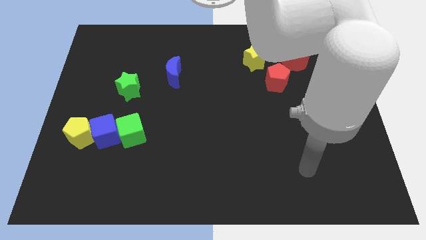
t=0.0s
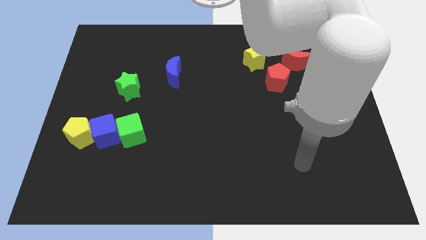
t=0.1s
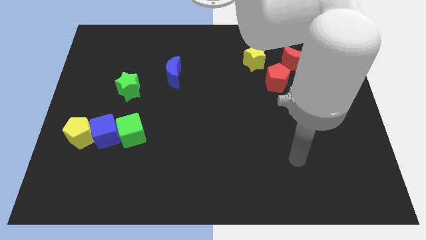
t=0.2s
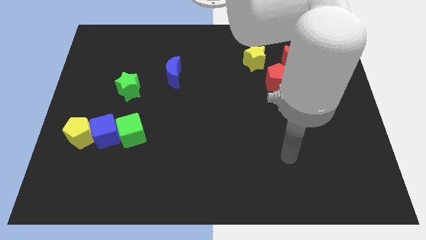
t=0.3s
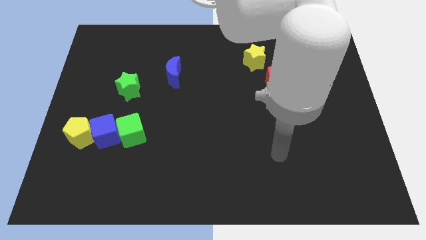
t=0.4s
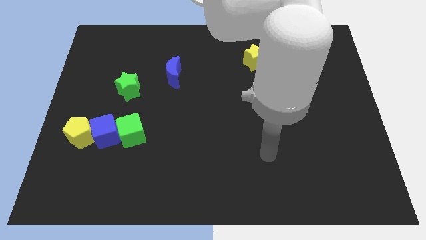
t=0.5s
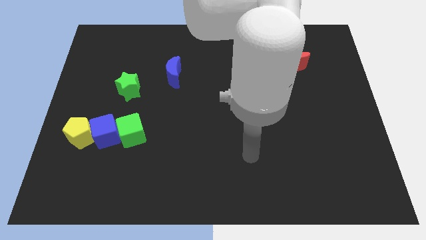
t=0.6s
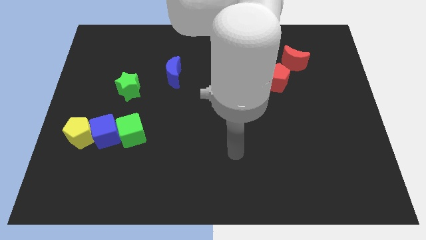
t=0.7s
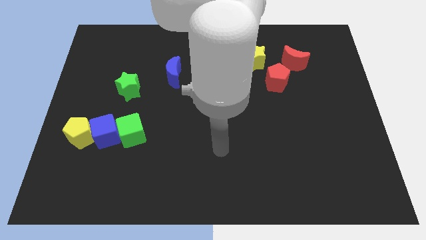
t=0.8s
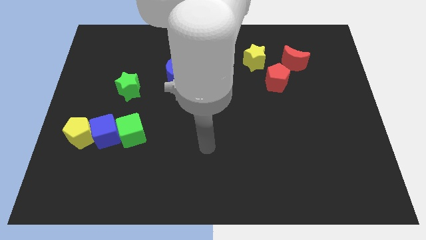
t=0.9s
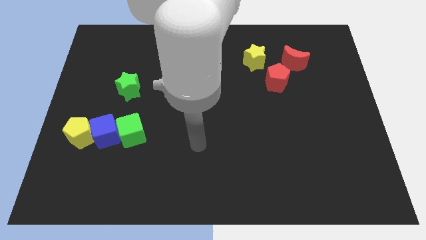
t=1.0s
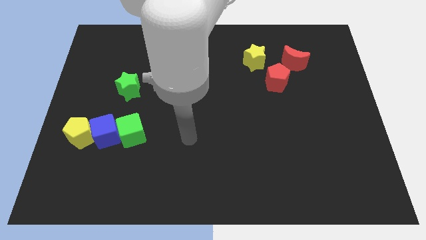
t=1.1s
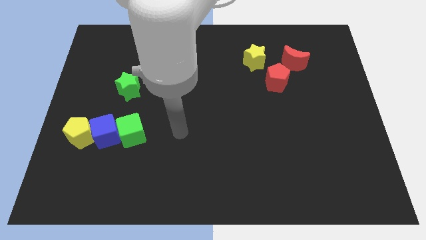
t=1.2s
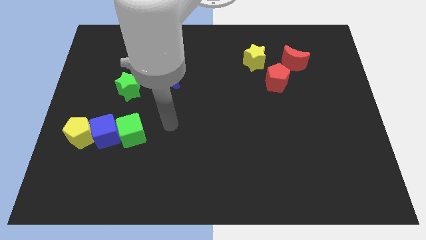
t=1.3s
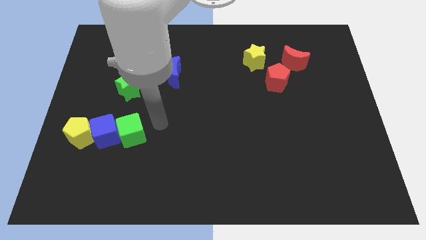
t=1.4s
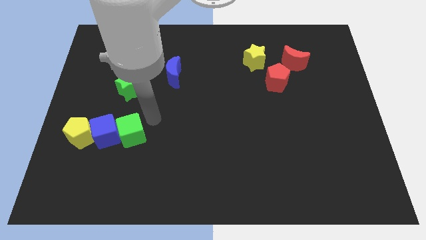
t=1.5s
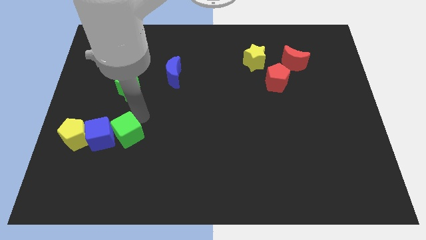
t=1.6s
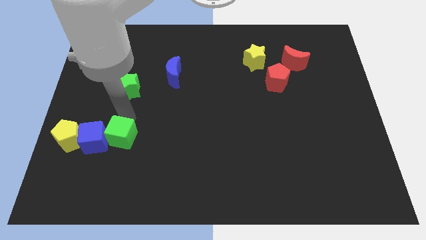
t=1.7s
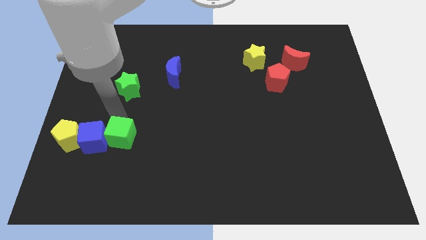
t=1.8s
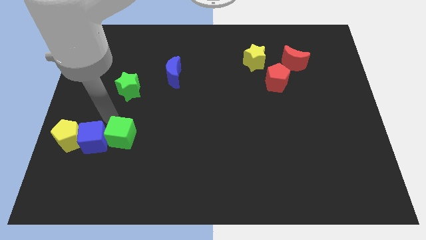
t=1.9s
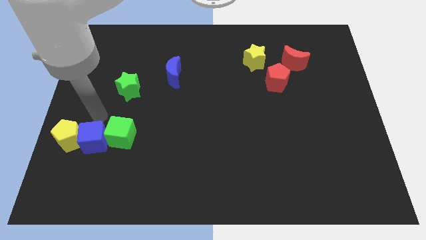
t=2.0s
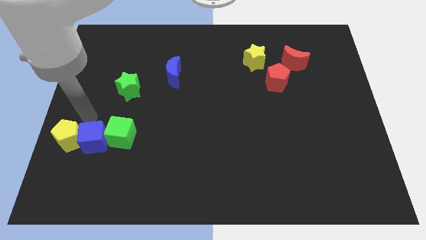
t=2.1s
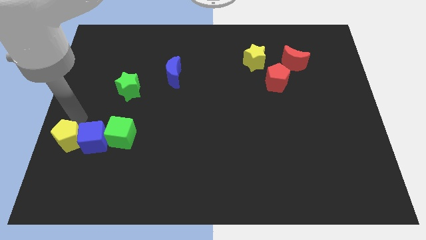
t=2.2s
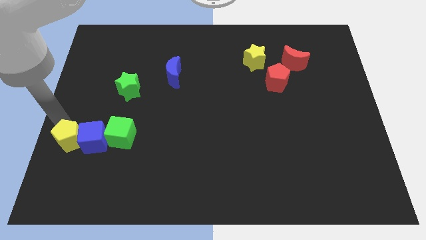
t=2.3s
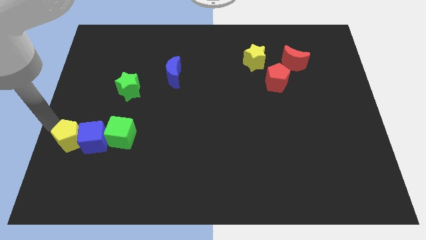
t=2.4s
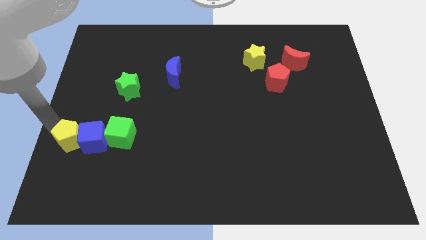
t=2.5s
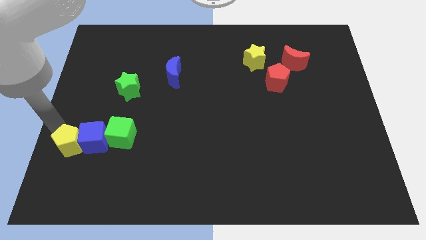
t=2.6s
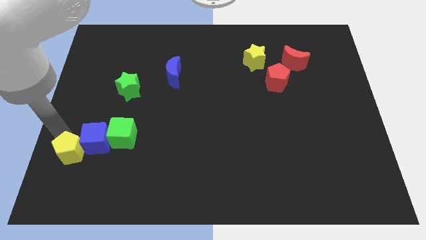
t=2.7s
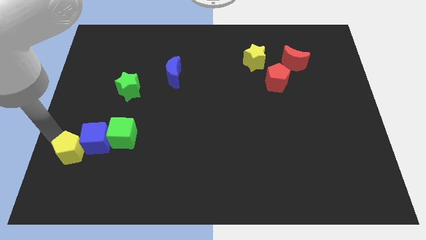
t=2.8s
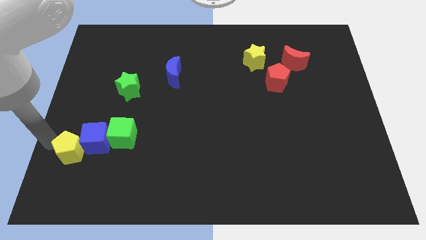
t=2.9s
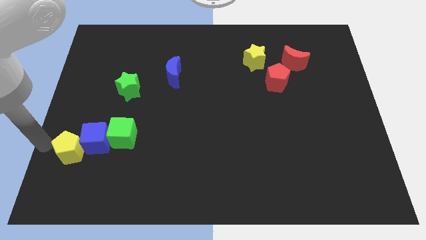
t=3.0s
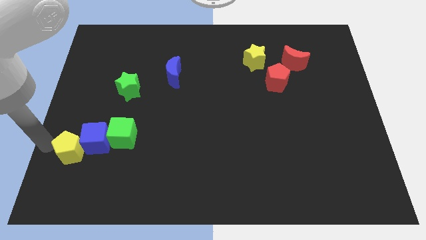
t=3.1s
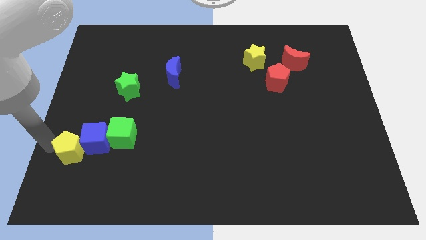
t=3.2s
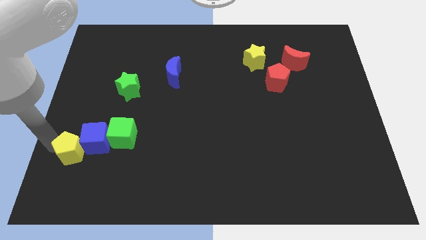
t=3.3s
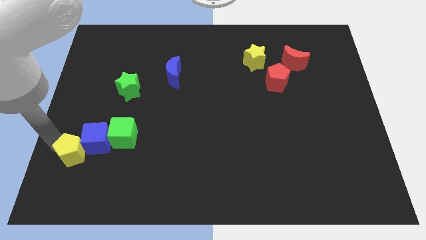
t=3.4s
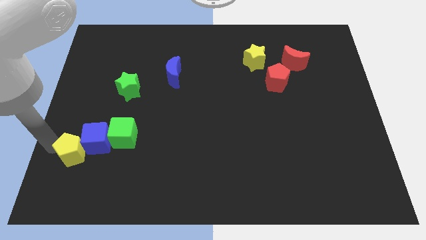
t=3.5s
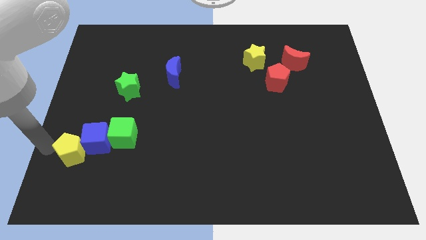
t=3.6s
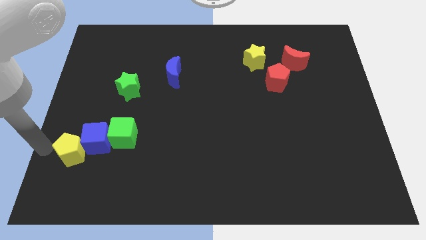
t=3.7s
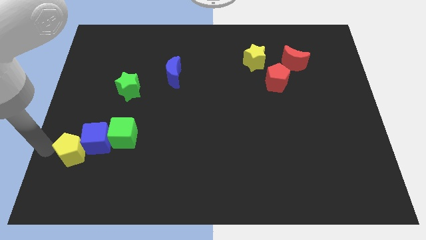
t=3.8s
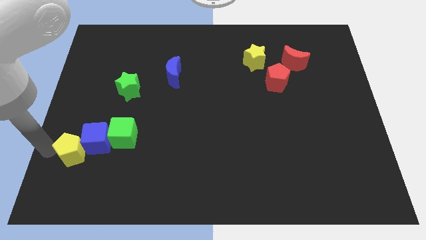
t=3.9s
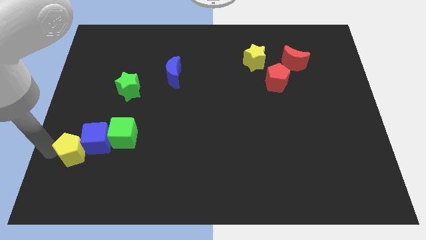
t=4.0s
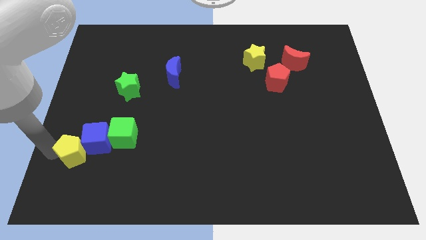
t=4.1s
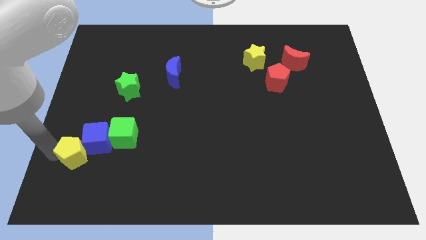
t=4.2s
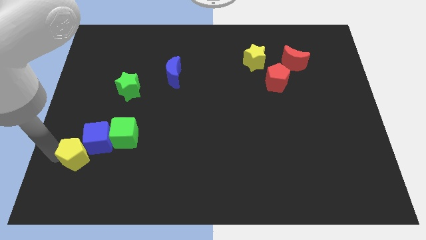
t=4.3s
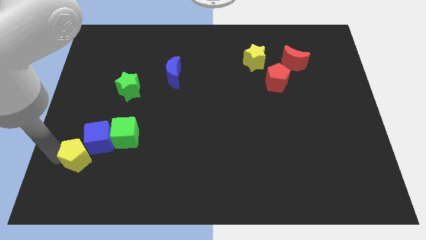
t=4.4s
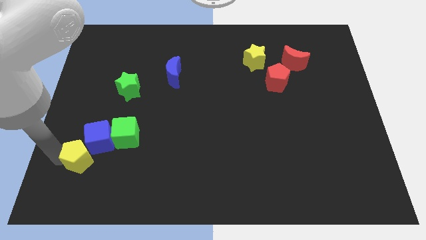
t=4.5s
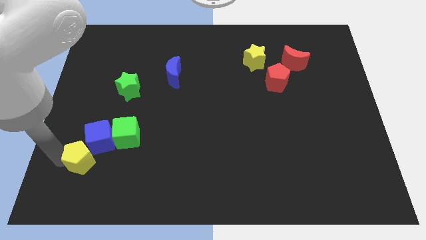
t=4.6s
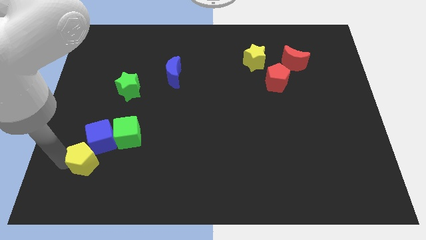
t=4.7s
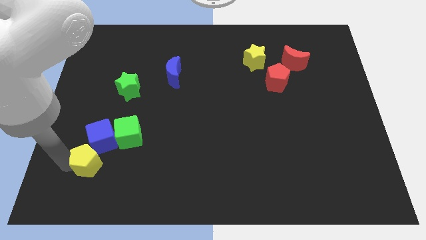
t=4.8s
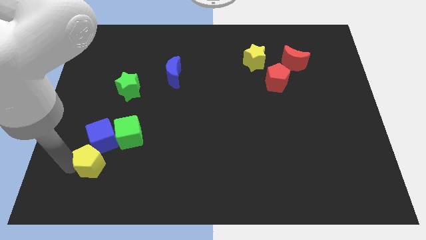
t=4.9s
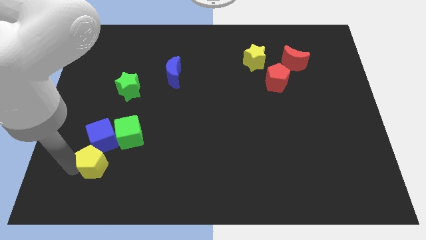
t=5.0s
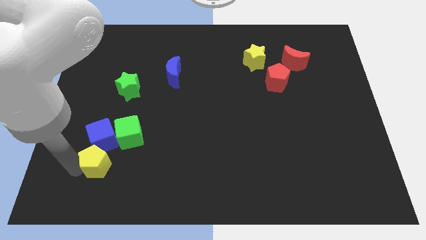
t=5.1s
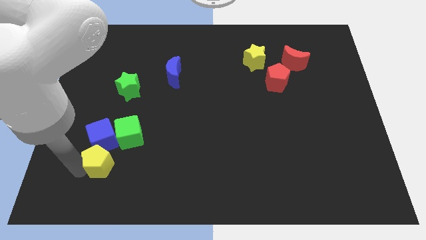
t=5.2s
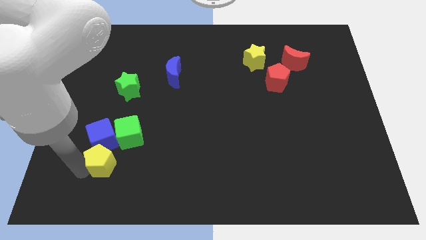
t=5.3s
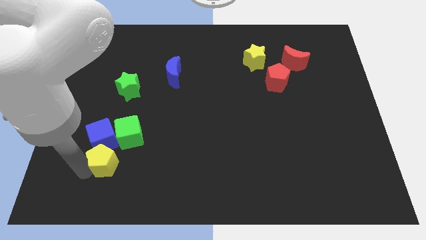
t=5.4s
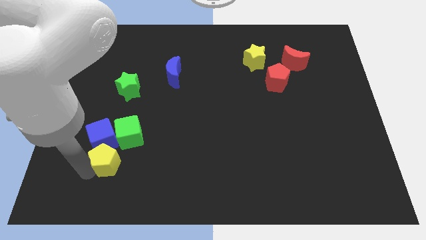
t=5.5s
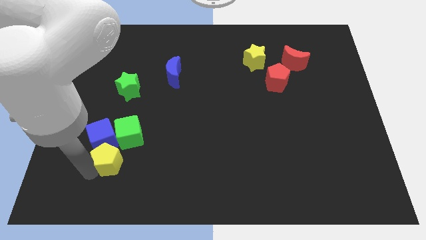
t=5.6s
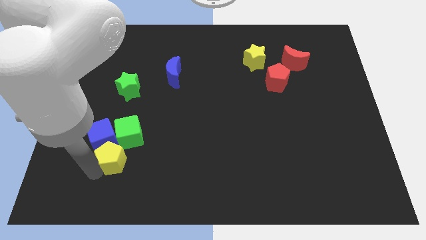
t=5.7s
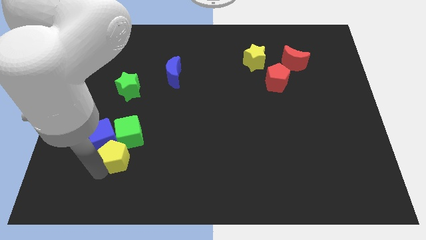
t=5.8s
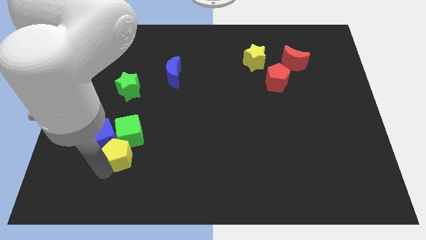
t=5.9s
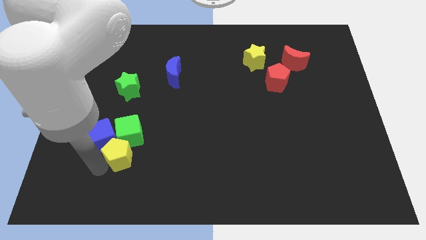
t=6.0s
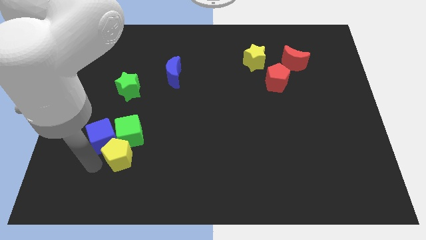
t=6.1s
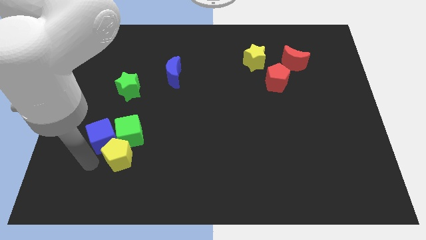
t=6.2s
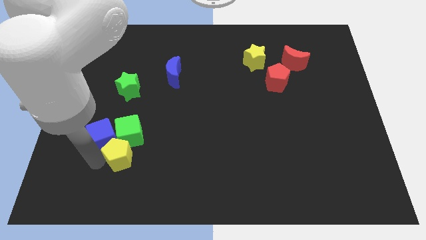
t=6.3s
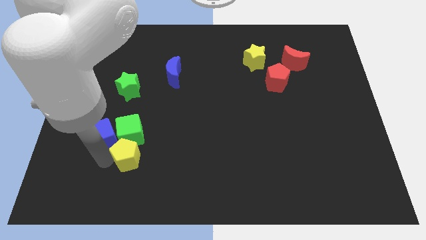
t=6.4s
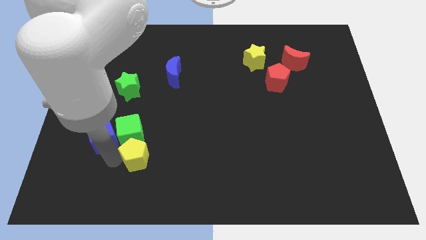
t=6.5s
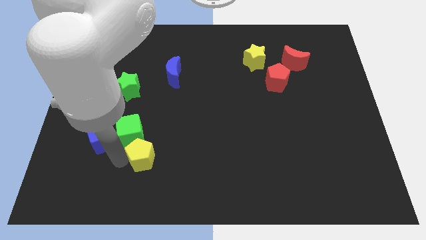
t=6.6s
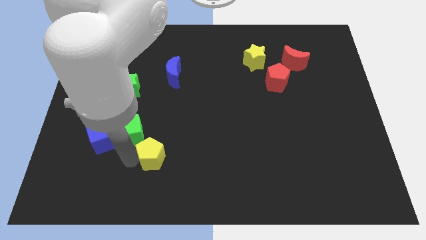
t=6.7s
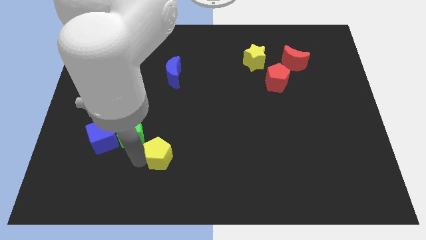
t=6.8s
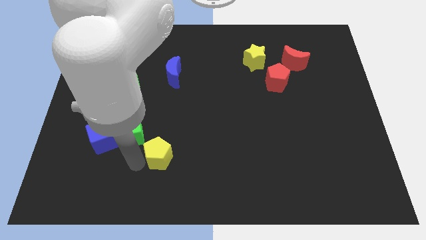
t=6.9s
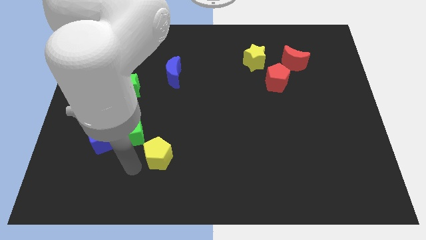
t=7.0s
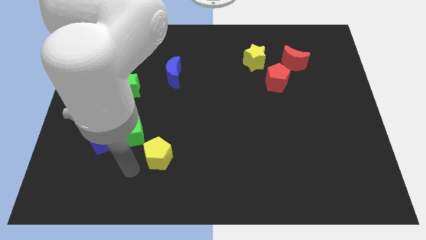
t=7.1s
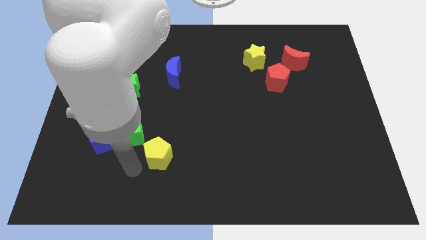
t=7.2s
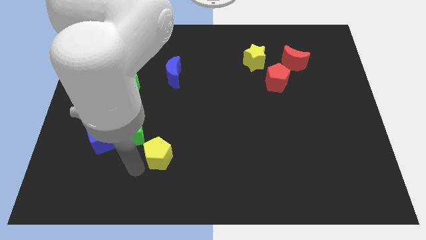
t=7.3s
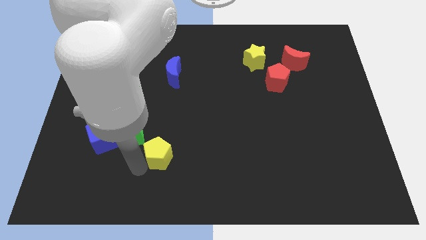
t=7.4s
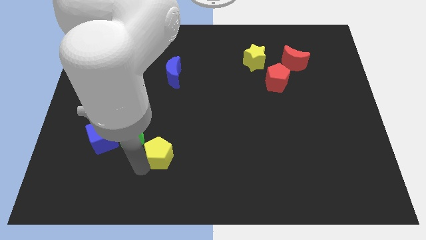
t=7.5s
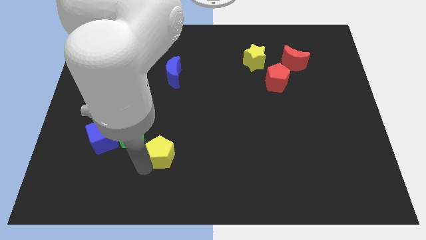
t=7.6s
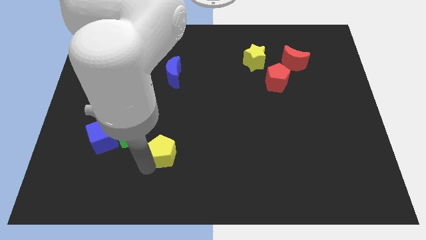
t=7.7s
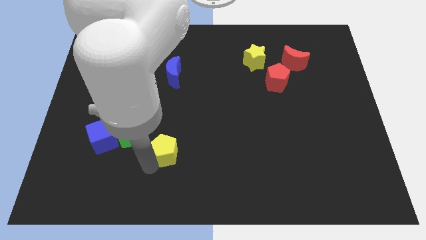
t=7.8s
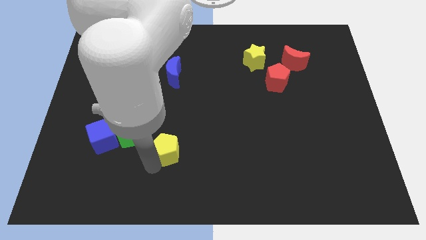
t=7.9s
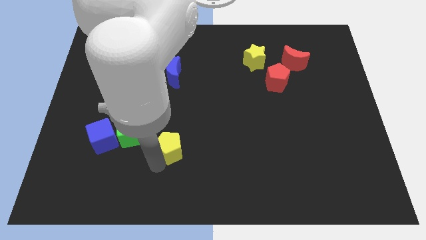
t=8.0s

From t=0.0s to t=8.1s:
push the yellow pentagon to the right

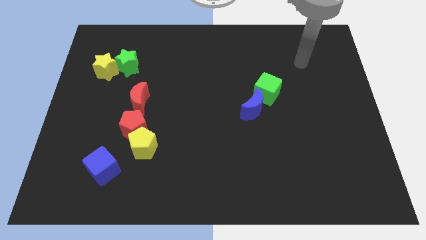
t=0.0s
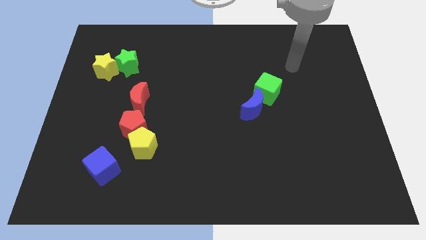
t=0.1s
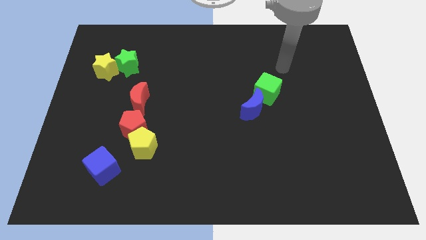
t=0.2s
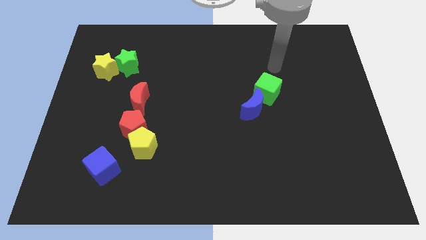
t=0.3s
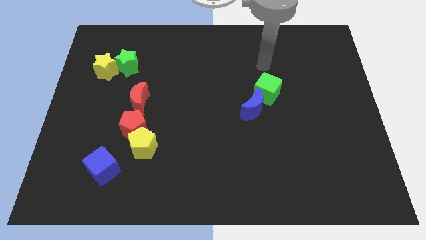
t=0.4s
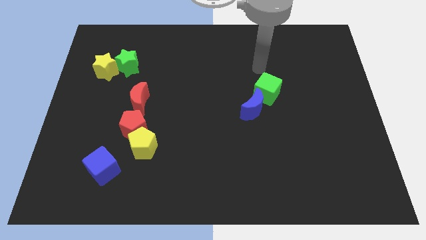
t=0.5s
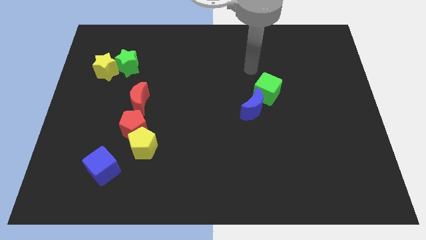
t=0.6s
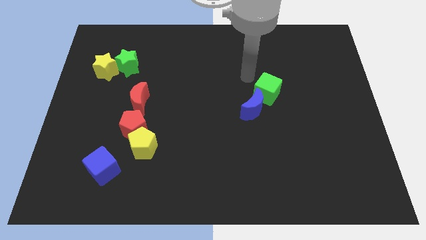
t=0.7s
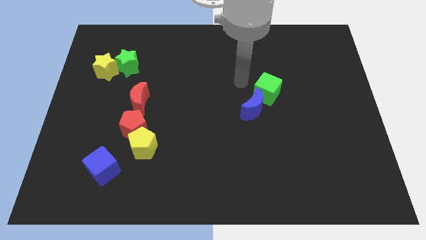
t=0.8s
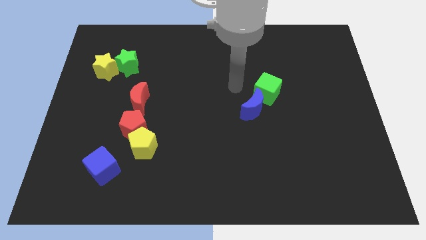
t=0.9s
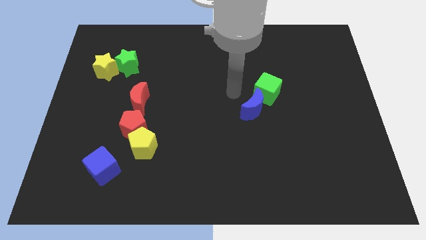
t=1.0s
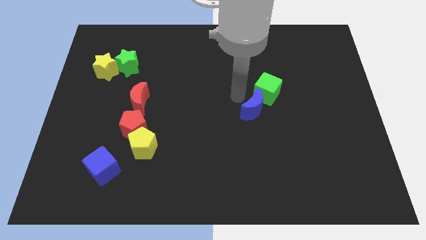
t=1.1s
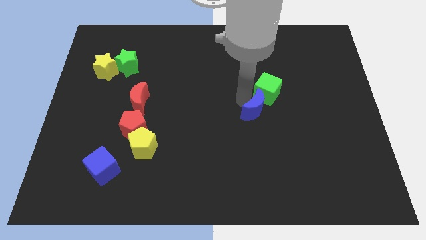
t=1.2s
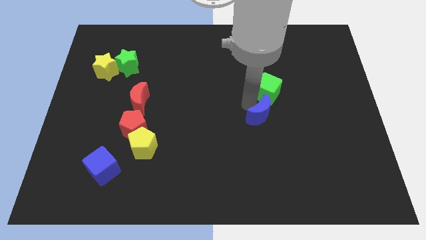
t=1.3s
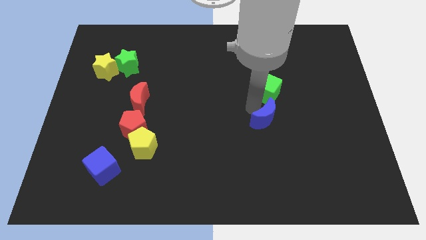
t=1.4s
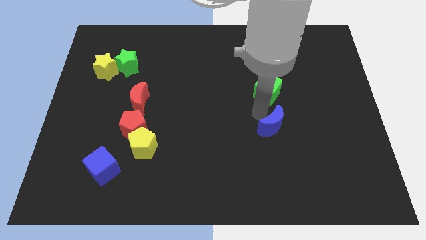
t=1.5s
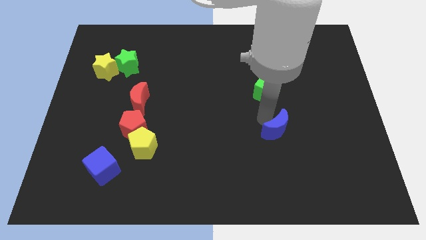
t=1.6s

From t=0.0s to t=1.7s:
slightly slide the blue moon downwards and to the right diagonally
